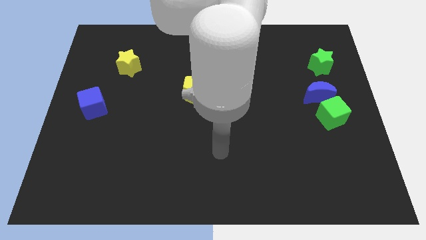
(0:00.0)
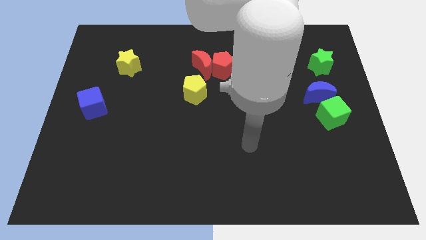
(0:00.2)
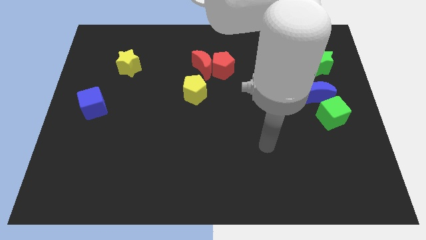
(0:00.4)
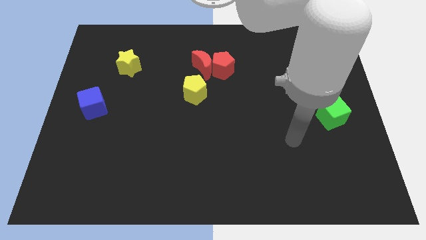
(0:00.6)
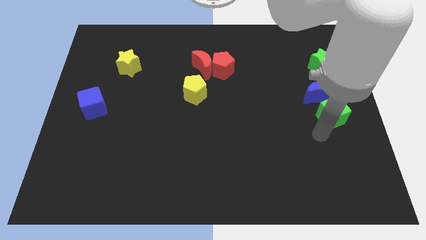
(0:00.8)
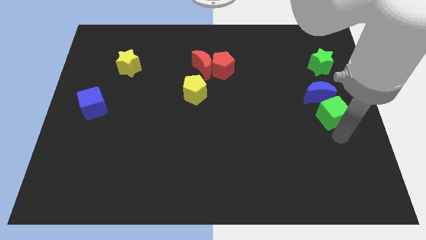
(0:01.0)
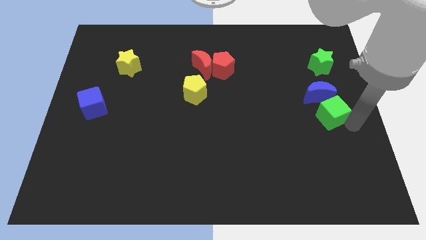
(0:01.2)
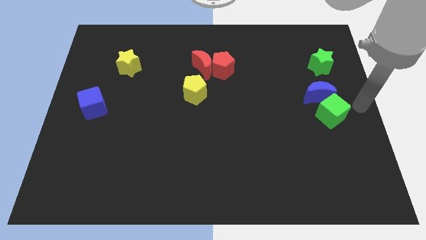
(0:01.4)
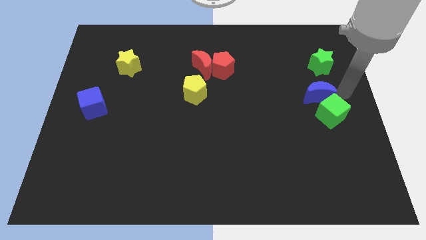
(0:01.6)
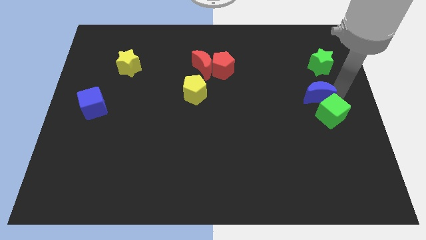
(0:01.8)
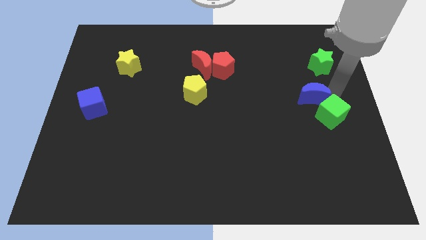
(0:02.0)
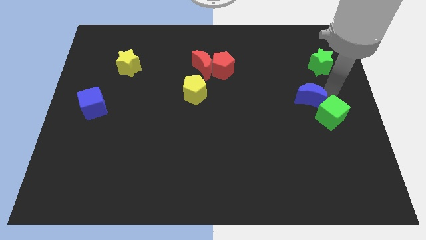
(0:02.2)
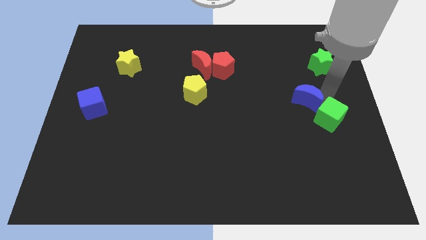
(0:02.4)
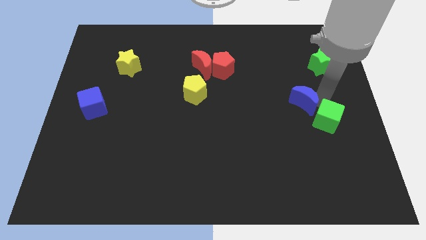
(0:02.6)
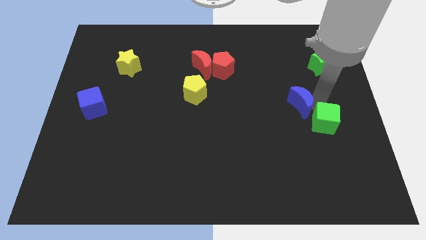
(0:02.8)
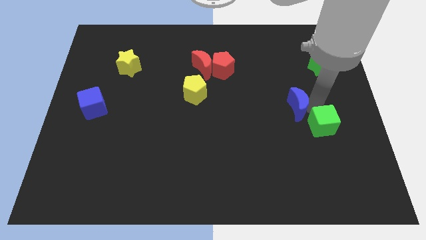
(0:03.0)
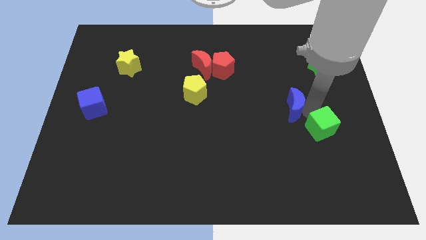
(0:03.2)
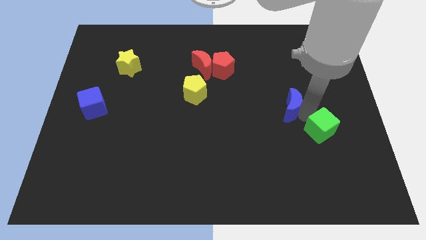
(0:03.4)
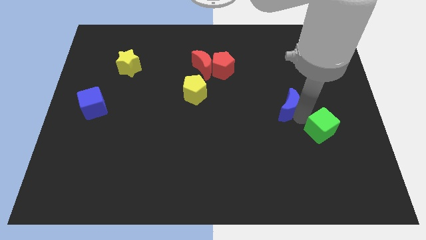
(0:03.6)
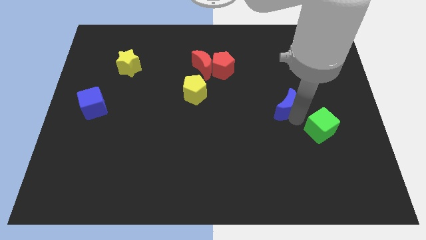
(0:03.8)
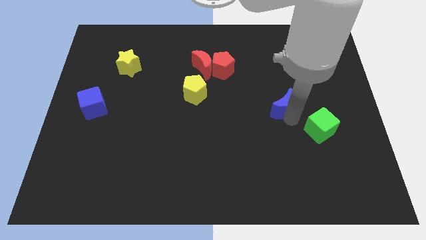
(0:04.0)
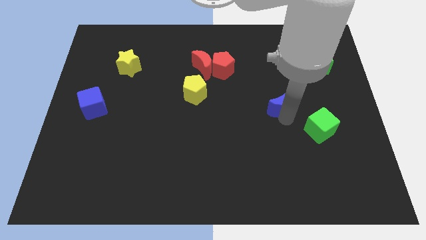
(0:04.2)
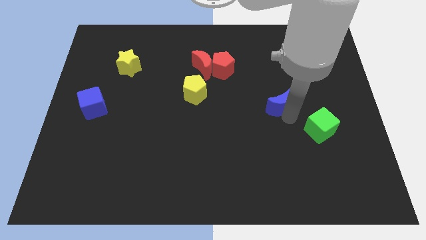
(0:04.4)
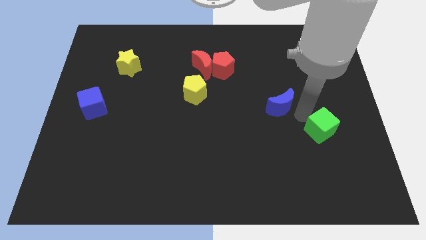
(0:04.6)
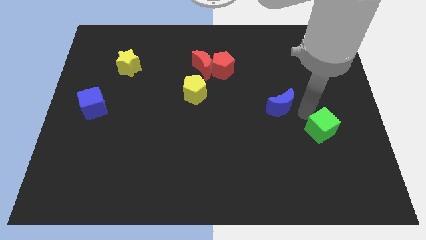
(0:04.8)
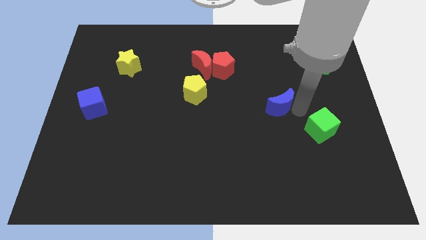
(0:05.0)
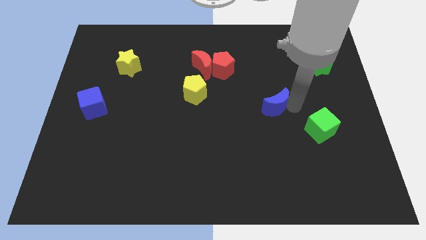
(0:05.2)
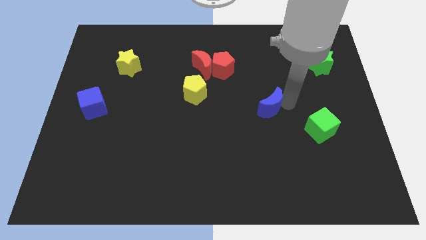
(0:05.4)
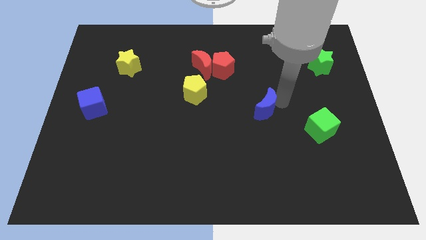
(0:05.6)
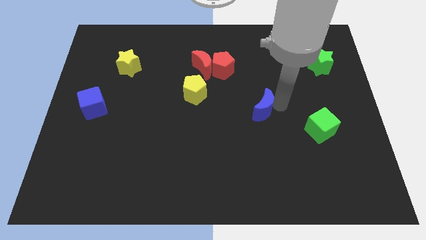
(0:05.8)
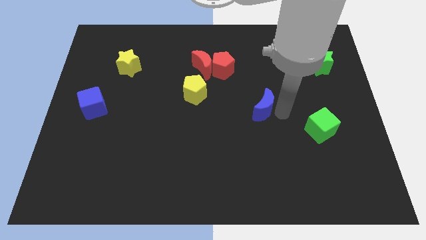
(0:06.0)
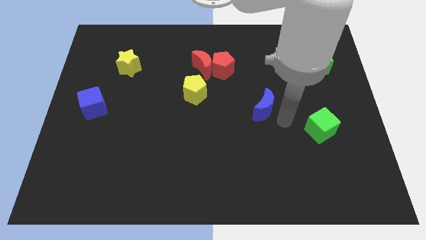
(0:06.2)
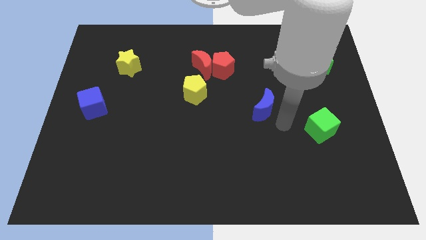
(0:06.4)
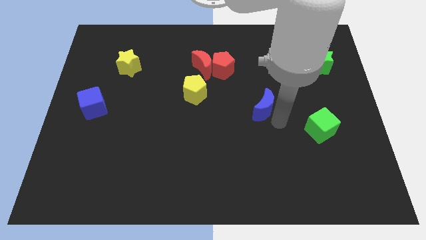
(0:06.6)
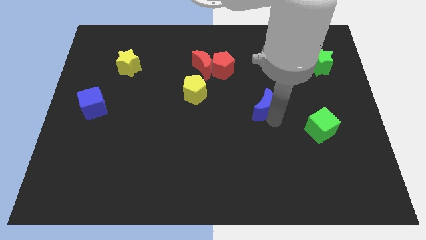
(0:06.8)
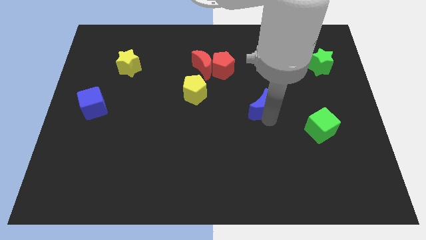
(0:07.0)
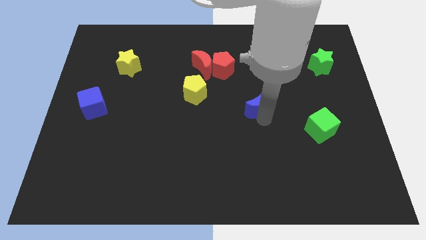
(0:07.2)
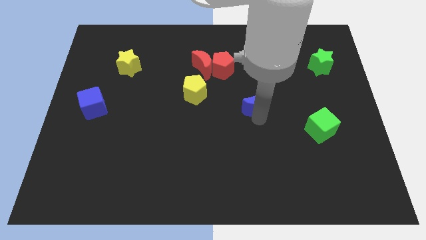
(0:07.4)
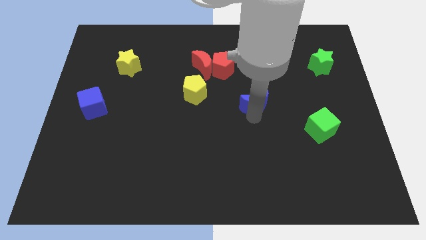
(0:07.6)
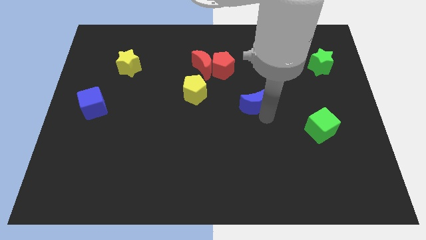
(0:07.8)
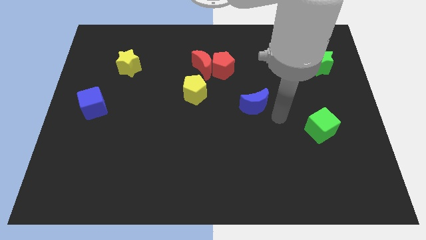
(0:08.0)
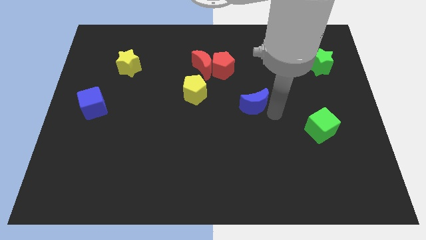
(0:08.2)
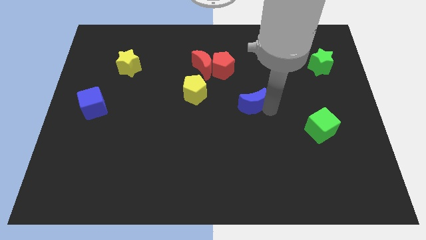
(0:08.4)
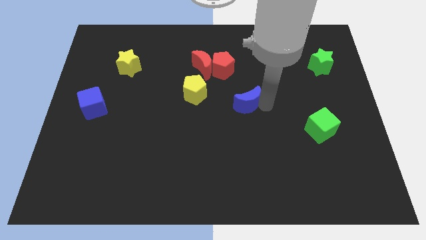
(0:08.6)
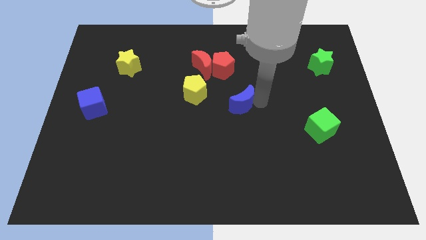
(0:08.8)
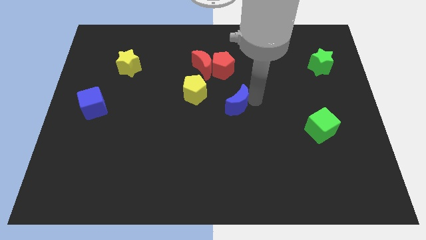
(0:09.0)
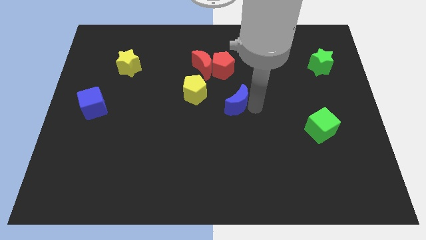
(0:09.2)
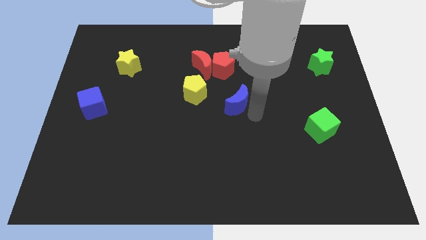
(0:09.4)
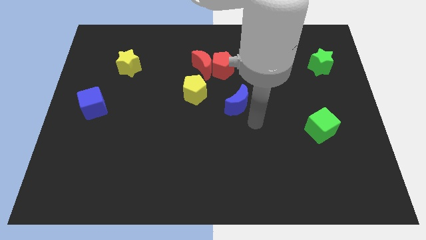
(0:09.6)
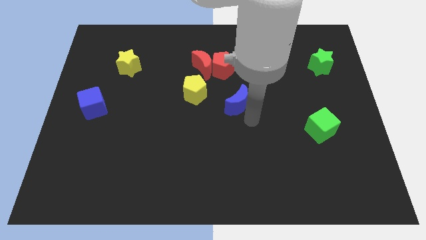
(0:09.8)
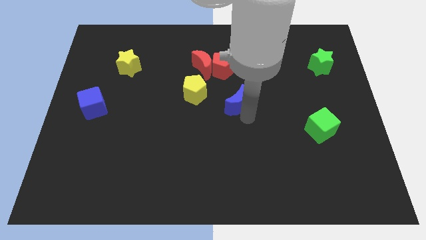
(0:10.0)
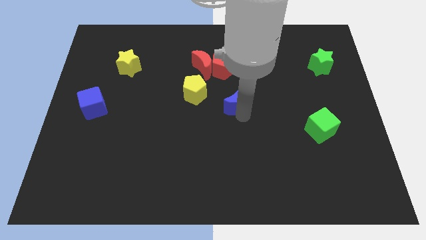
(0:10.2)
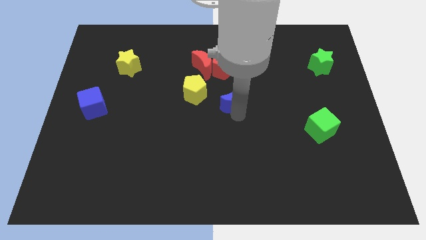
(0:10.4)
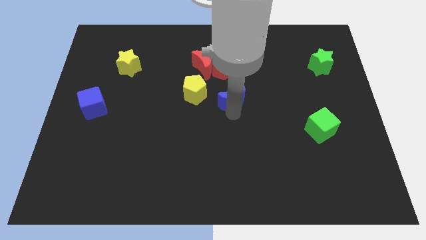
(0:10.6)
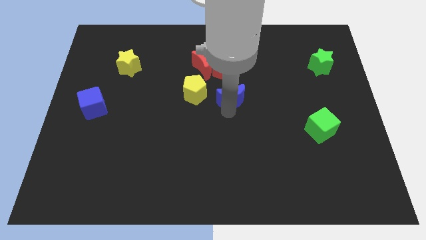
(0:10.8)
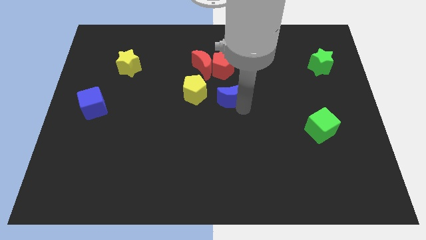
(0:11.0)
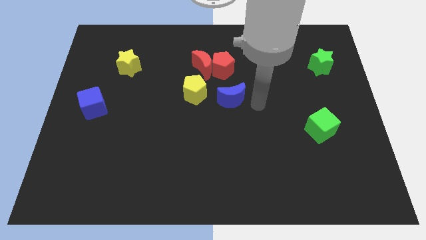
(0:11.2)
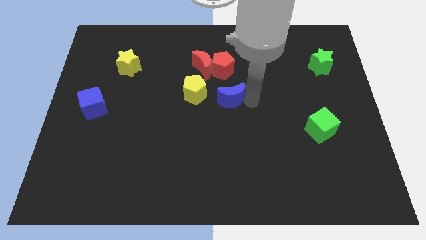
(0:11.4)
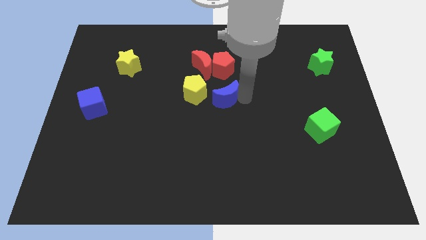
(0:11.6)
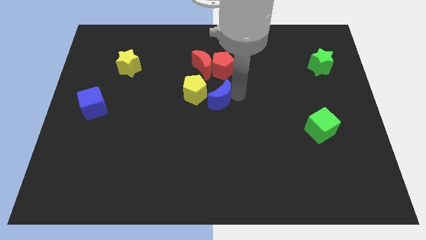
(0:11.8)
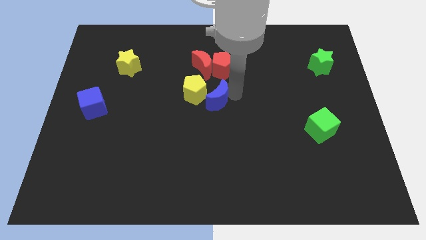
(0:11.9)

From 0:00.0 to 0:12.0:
put the blue moon close to the yellow pentagon
